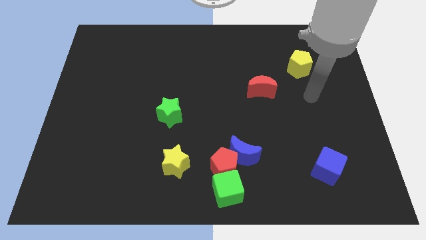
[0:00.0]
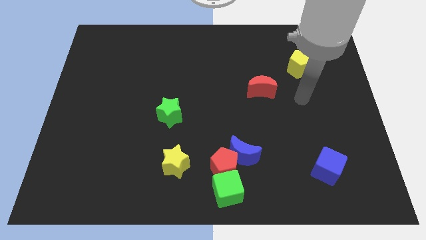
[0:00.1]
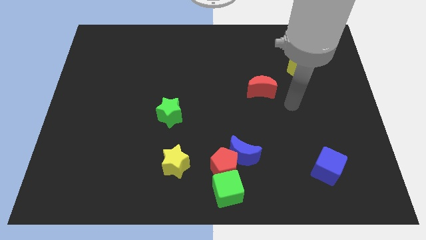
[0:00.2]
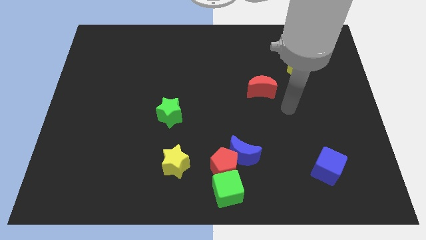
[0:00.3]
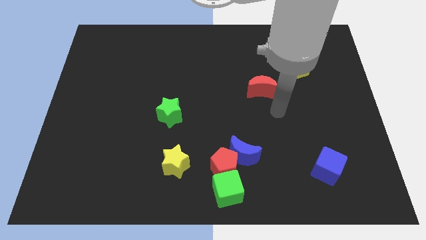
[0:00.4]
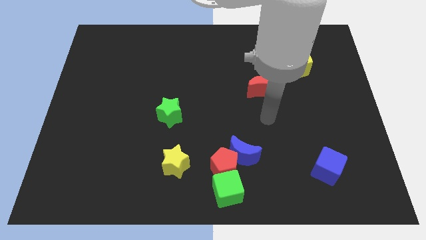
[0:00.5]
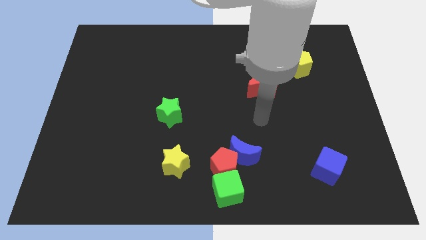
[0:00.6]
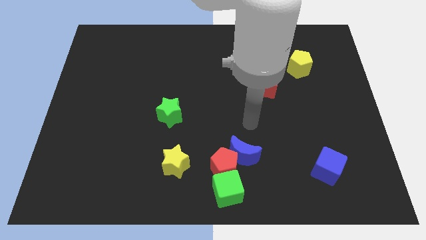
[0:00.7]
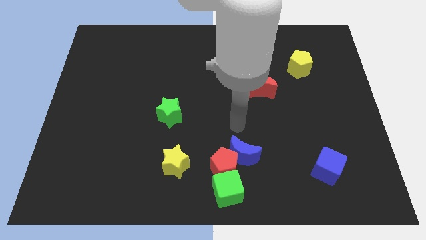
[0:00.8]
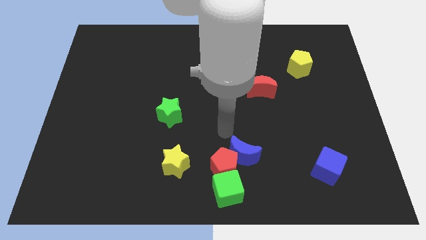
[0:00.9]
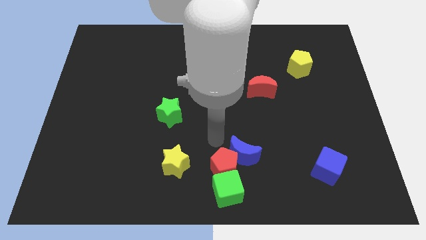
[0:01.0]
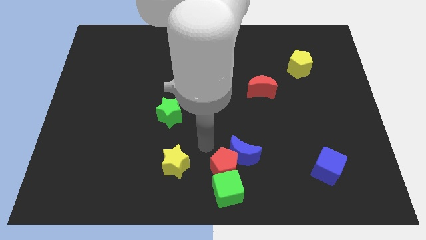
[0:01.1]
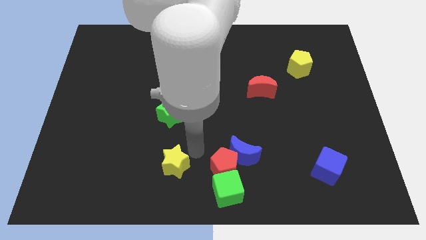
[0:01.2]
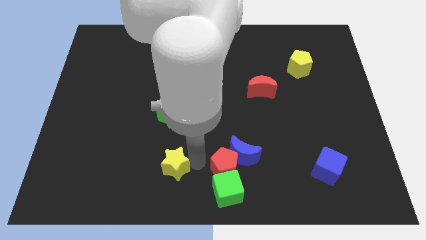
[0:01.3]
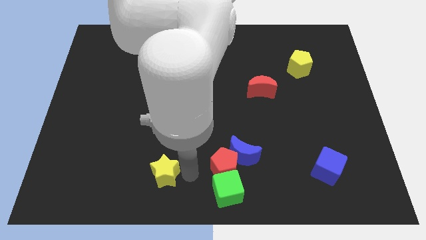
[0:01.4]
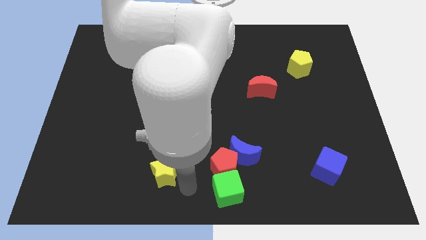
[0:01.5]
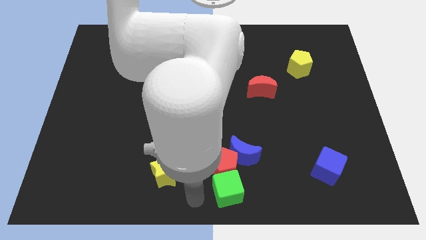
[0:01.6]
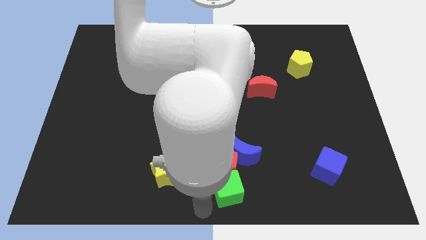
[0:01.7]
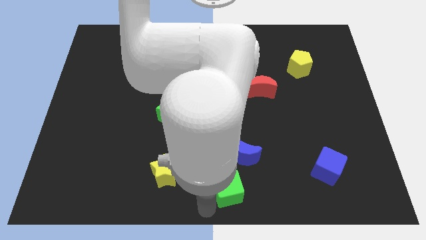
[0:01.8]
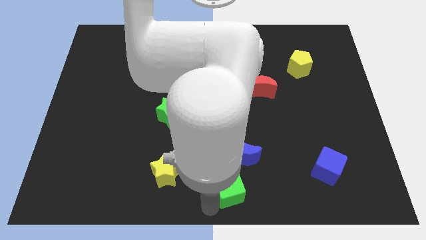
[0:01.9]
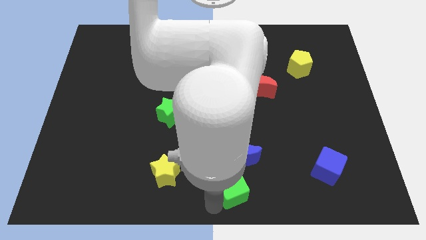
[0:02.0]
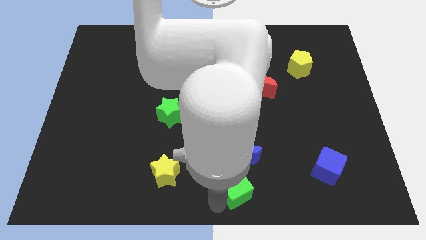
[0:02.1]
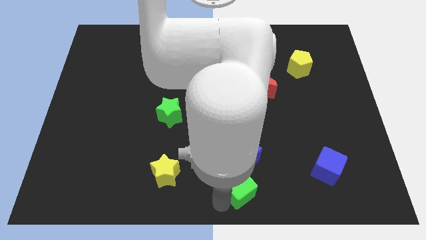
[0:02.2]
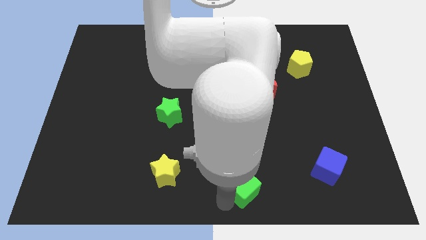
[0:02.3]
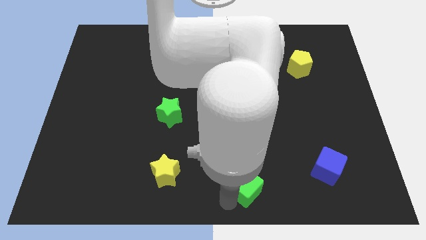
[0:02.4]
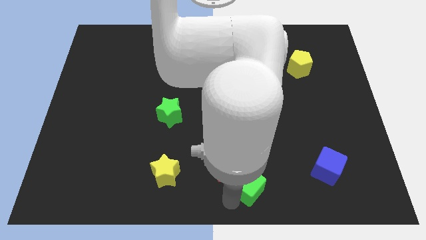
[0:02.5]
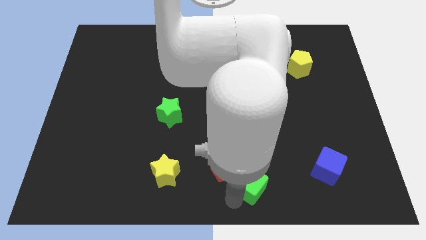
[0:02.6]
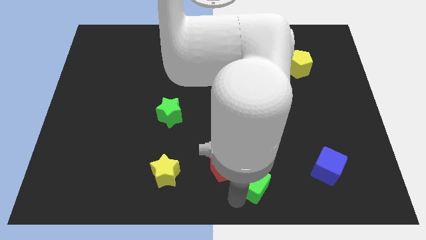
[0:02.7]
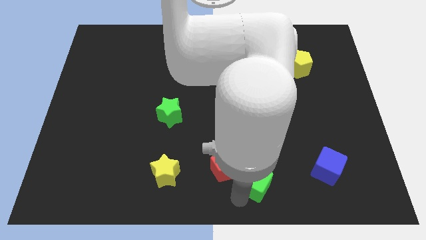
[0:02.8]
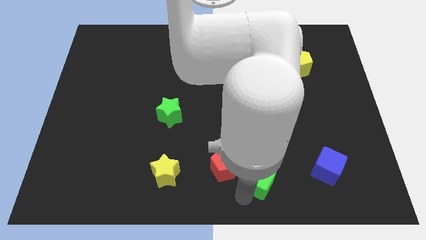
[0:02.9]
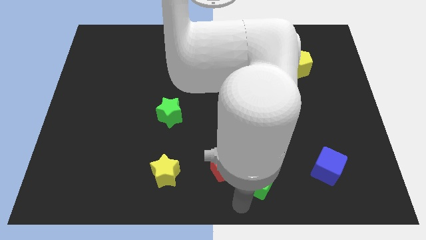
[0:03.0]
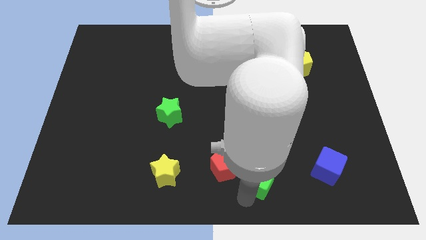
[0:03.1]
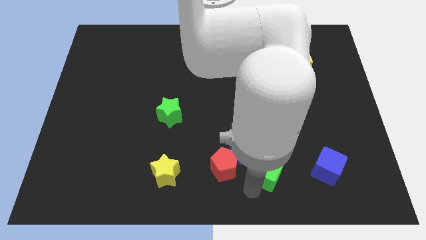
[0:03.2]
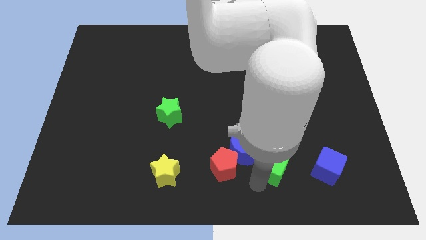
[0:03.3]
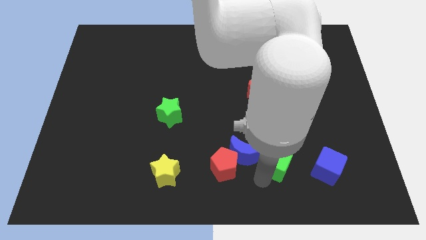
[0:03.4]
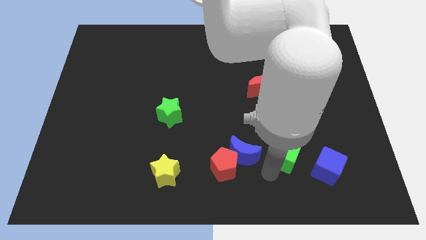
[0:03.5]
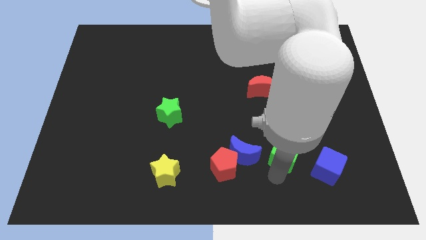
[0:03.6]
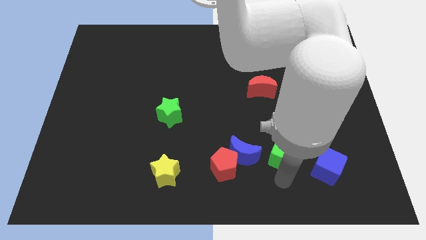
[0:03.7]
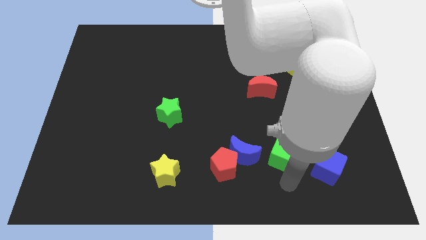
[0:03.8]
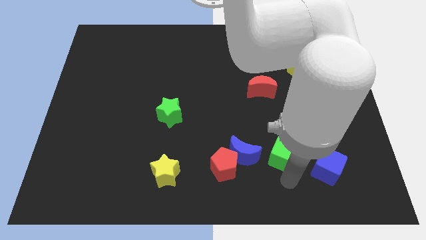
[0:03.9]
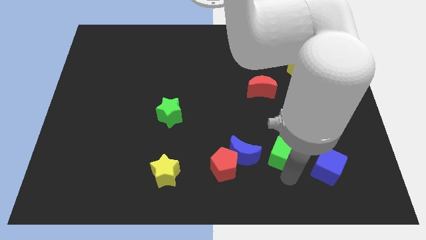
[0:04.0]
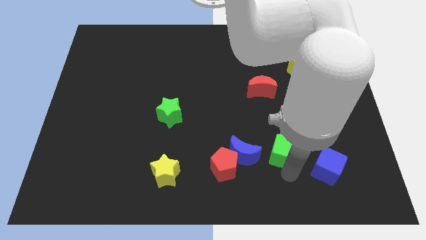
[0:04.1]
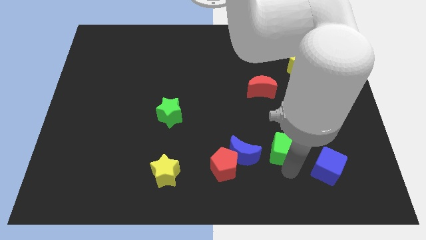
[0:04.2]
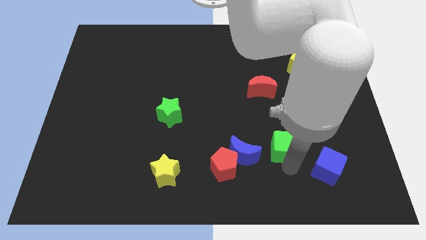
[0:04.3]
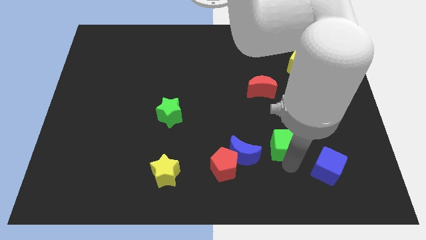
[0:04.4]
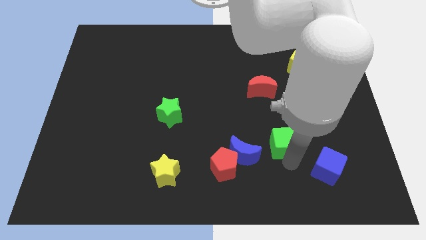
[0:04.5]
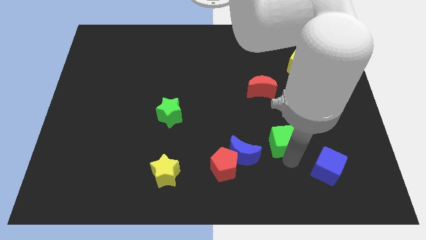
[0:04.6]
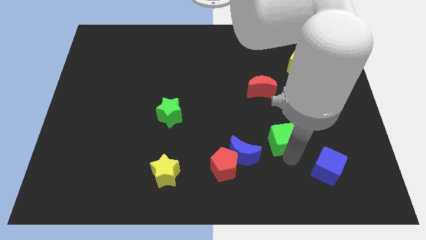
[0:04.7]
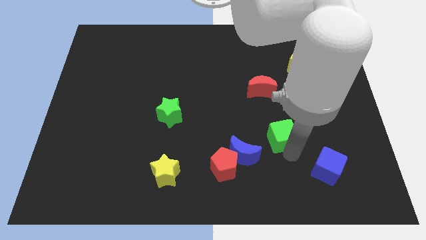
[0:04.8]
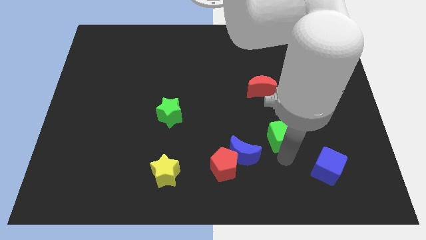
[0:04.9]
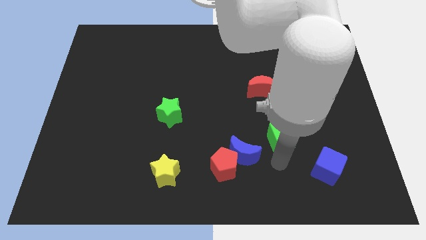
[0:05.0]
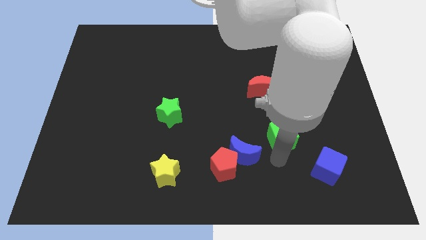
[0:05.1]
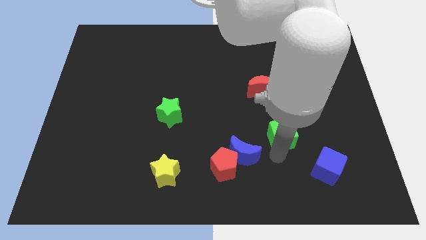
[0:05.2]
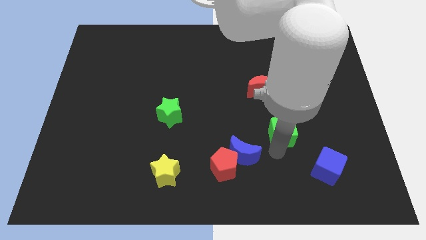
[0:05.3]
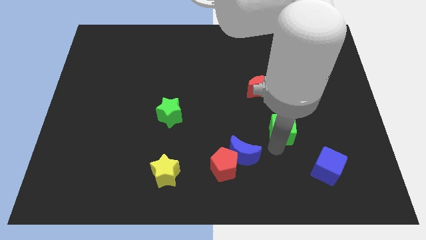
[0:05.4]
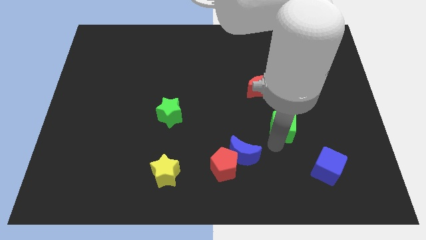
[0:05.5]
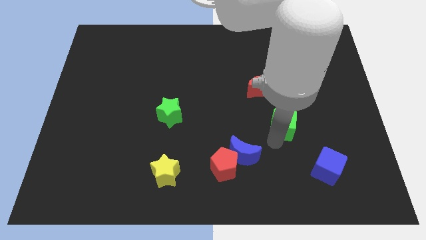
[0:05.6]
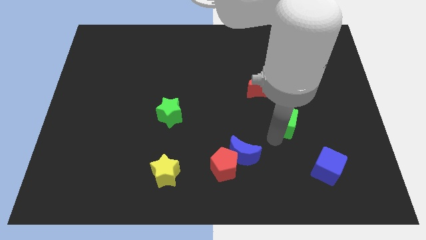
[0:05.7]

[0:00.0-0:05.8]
push the green cube diagonally down and to the right of the red moon

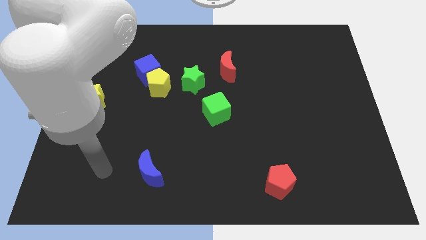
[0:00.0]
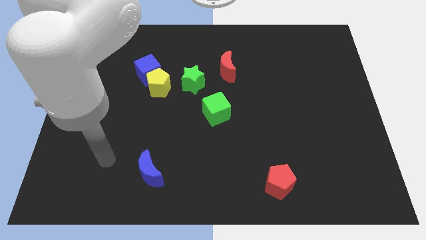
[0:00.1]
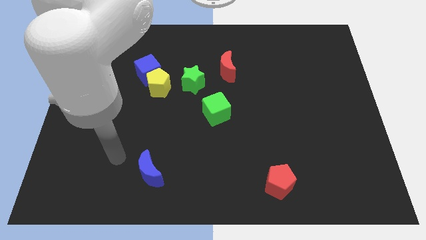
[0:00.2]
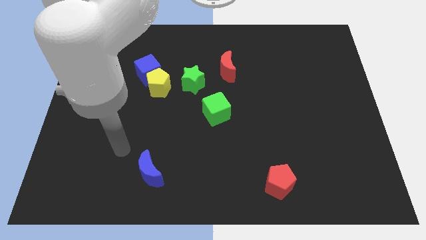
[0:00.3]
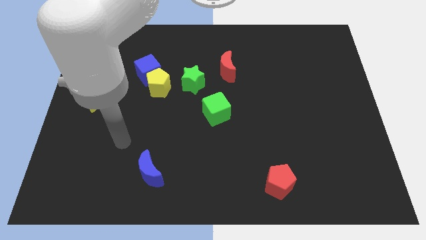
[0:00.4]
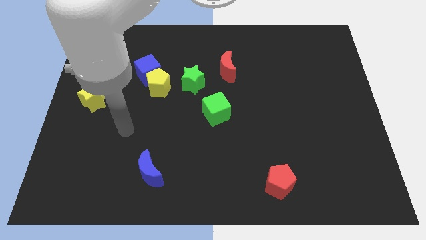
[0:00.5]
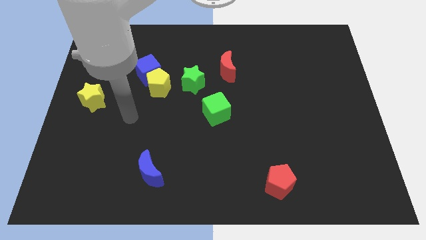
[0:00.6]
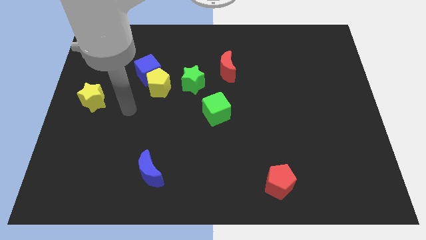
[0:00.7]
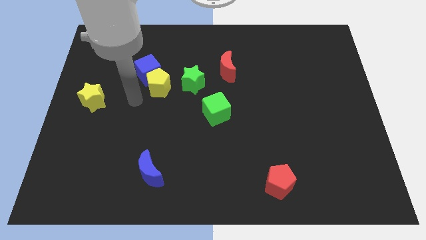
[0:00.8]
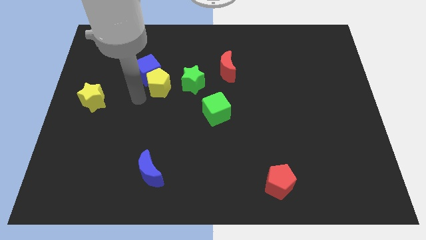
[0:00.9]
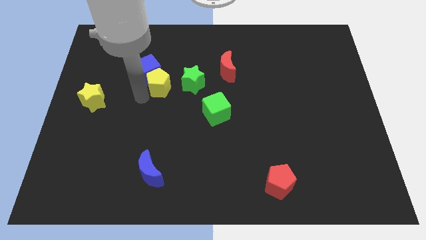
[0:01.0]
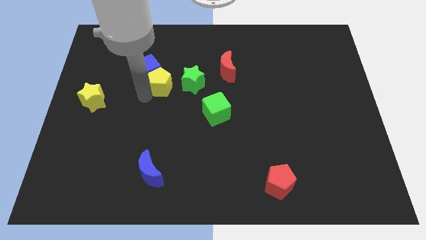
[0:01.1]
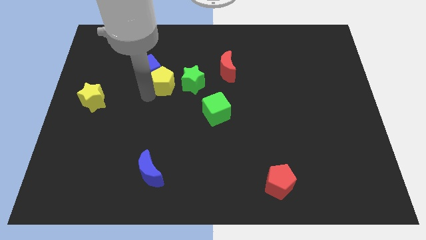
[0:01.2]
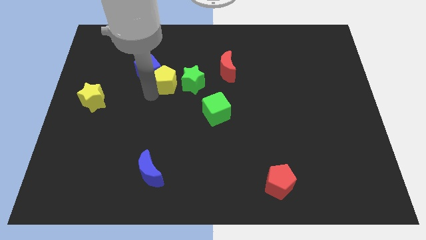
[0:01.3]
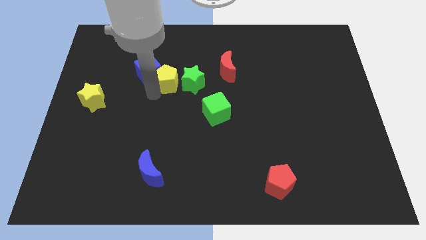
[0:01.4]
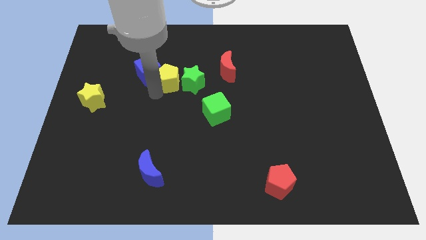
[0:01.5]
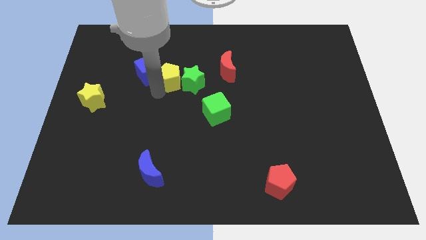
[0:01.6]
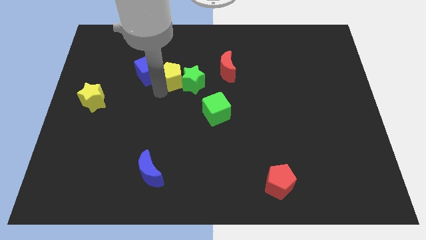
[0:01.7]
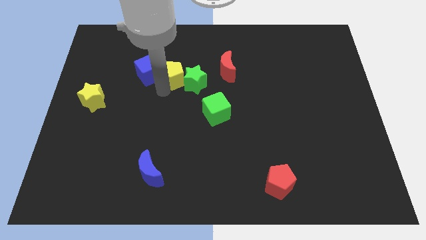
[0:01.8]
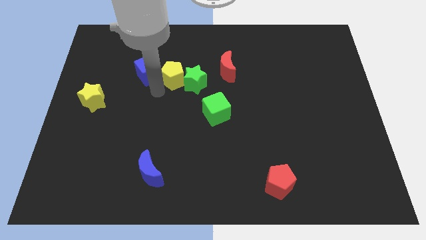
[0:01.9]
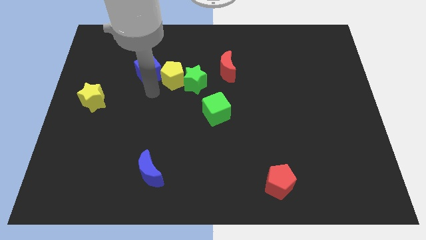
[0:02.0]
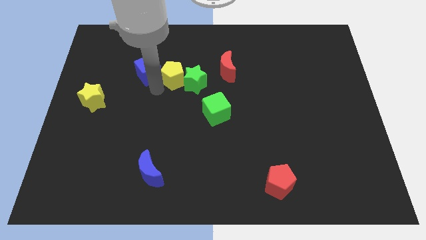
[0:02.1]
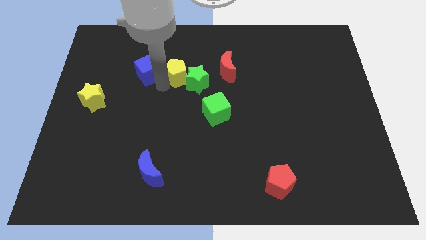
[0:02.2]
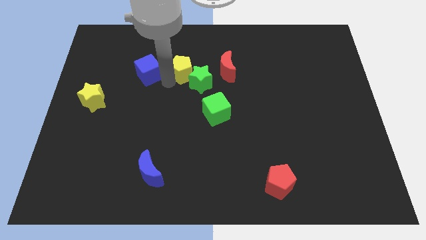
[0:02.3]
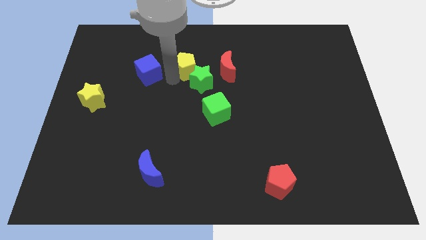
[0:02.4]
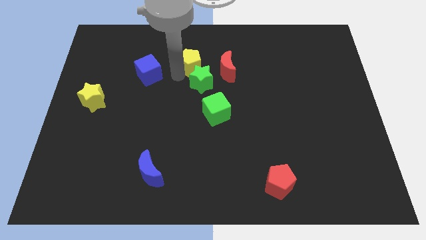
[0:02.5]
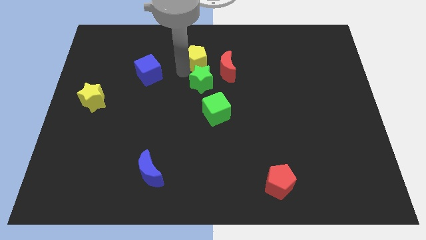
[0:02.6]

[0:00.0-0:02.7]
slide the yellow pentagon to the top left of the red moon

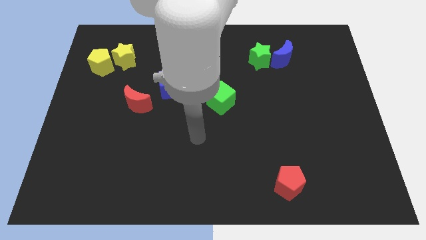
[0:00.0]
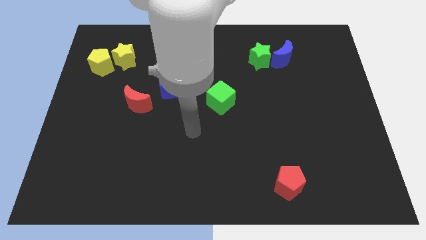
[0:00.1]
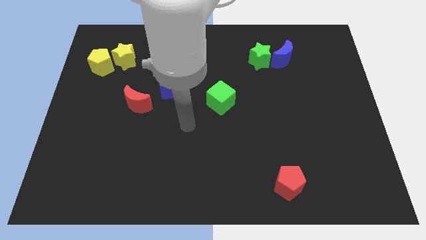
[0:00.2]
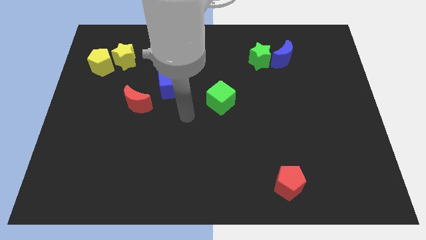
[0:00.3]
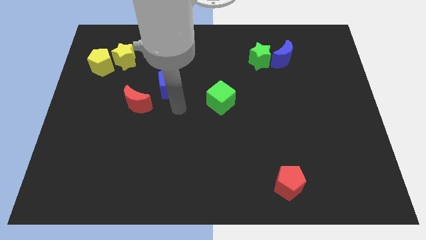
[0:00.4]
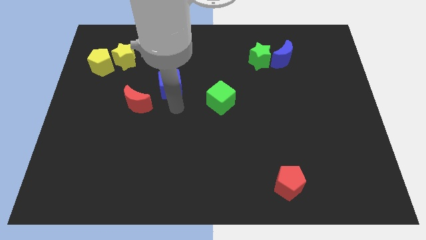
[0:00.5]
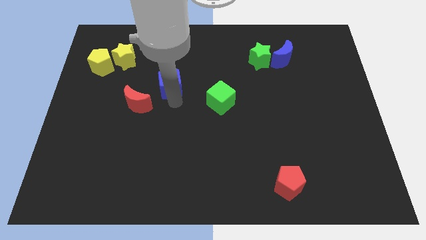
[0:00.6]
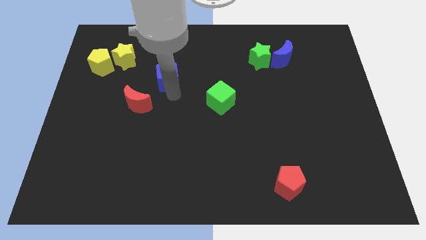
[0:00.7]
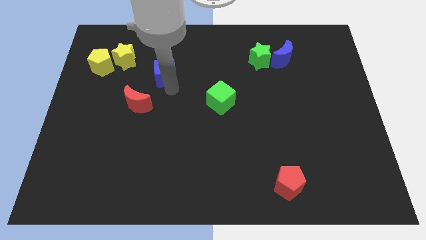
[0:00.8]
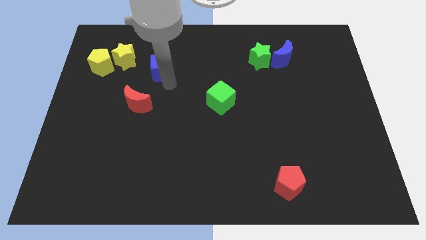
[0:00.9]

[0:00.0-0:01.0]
push the blue cube to the right of the yellow star
